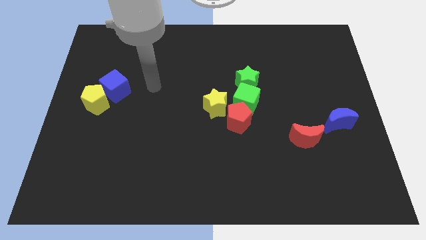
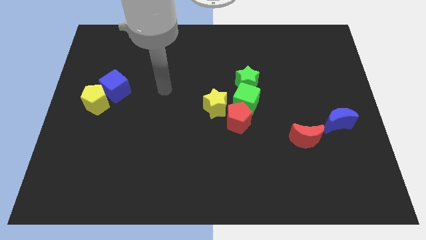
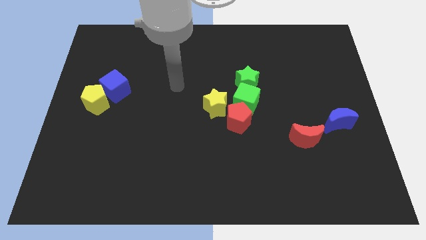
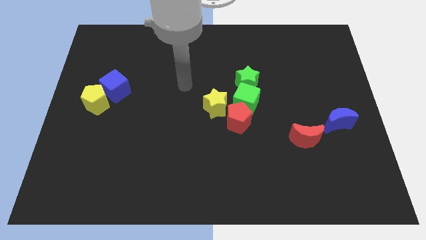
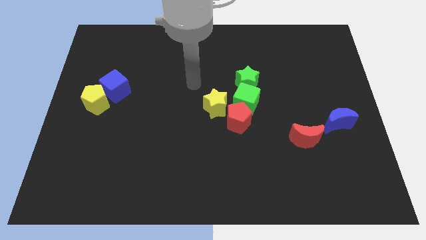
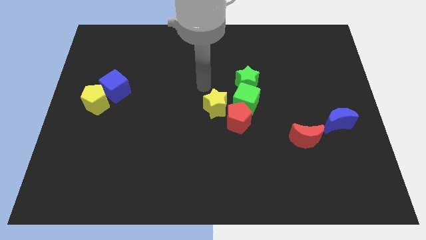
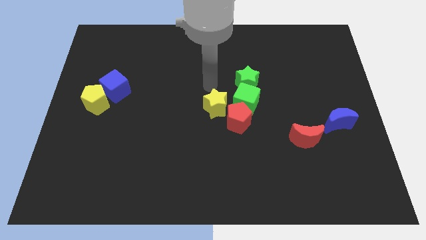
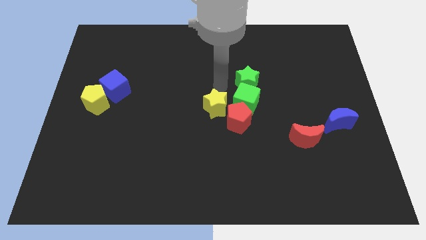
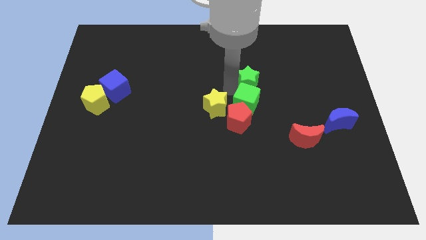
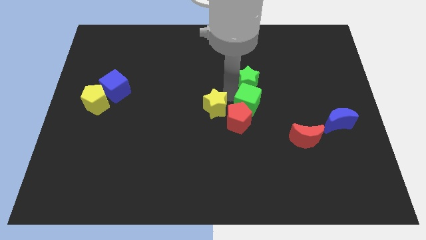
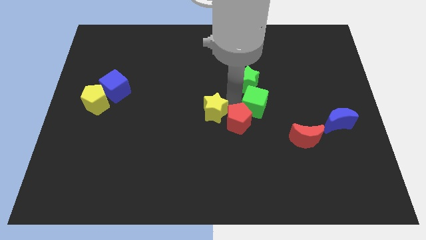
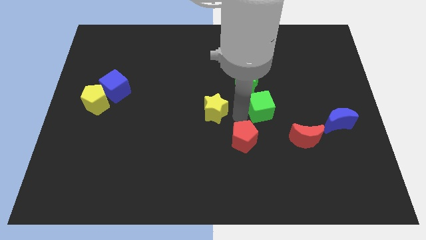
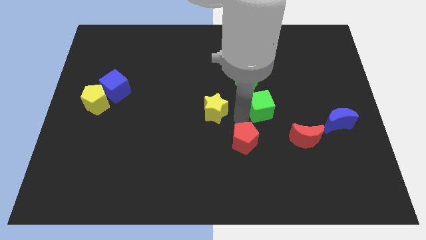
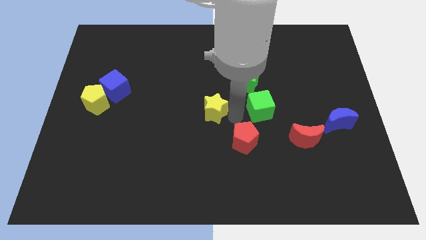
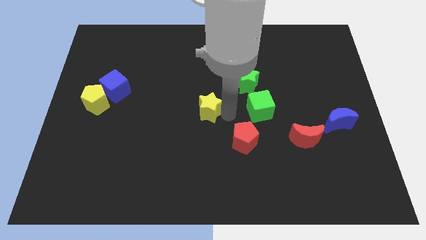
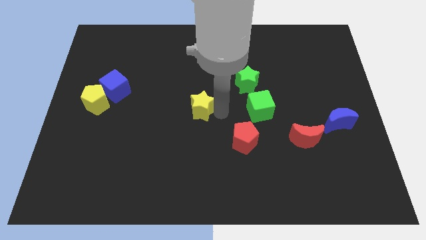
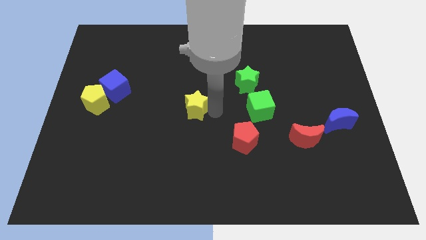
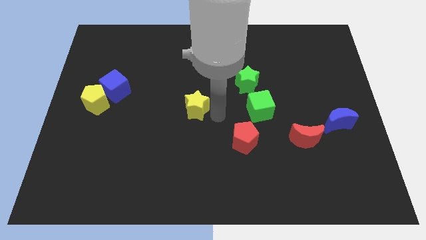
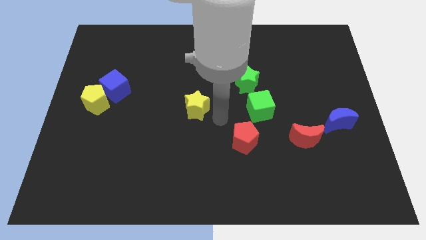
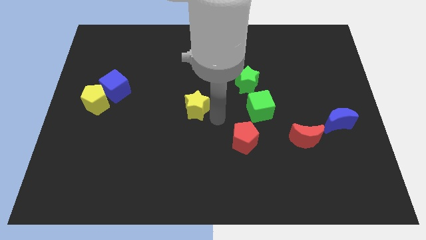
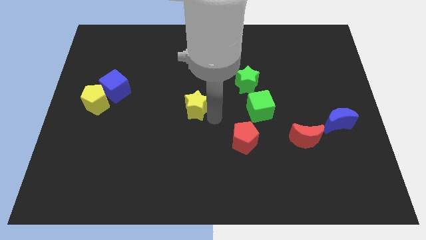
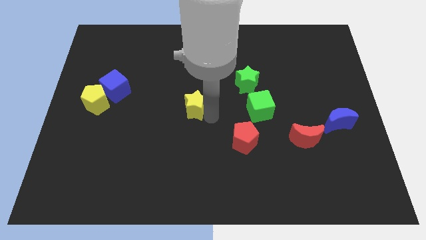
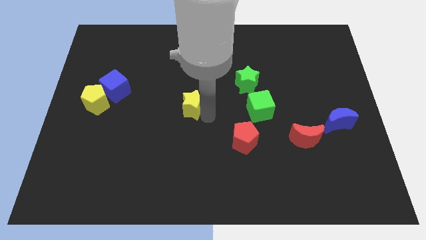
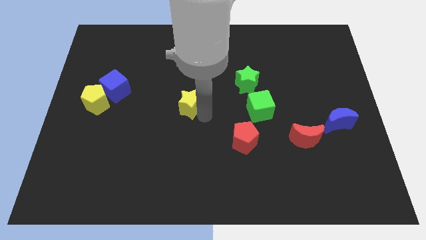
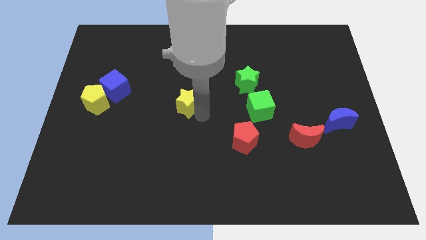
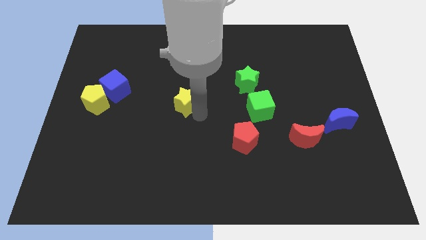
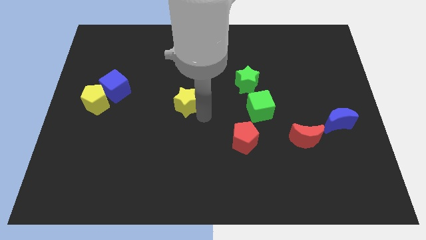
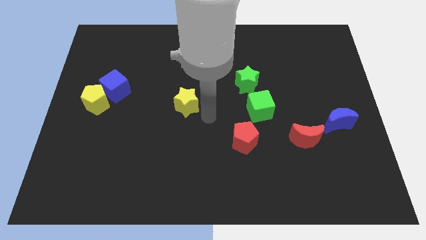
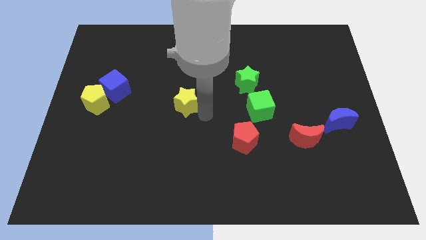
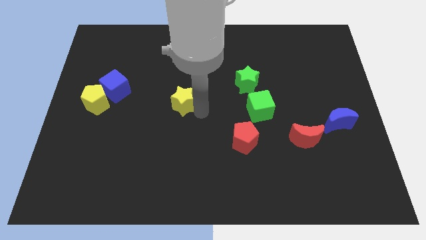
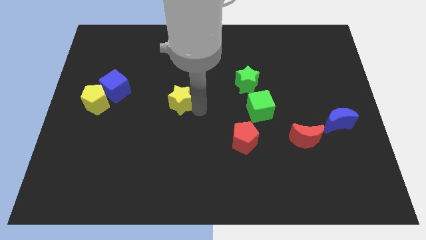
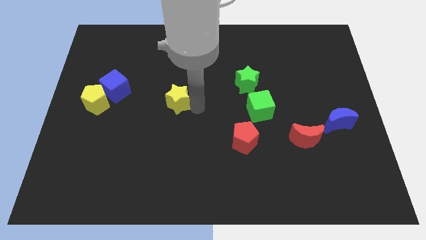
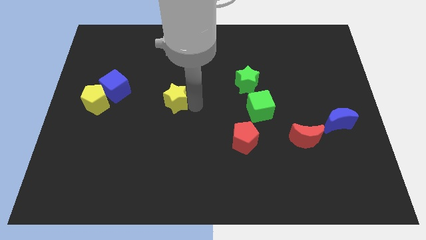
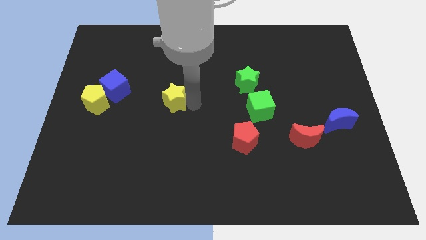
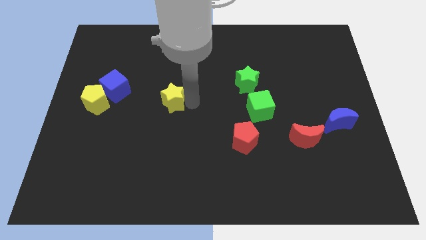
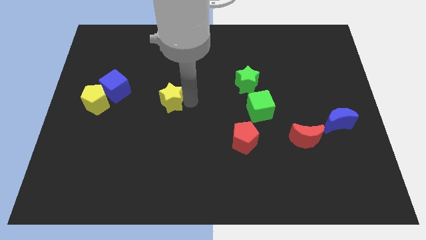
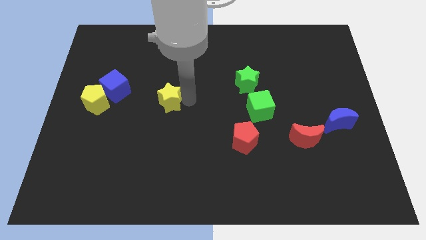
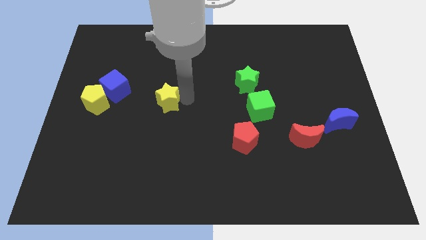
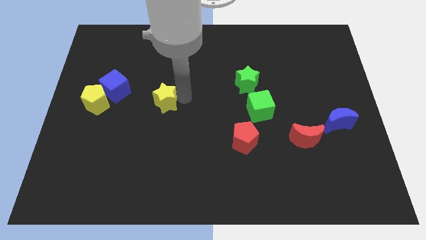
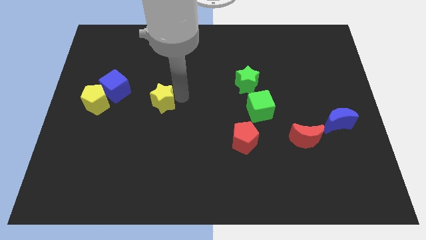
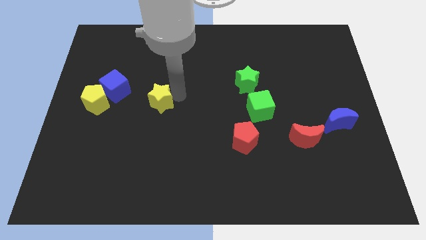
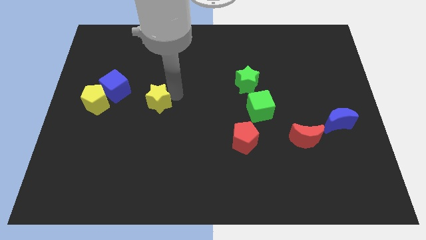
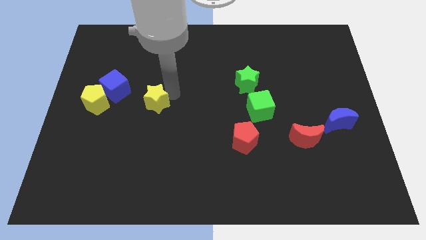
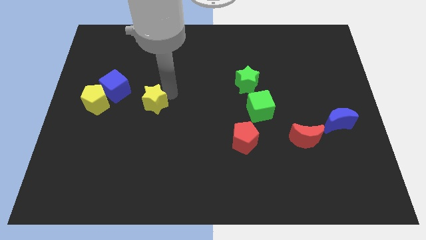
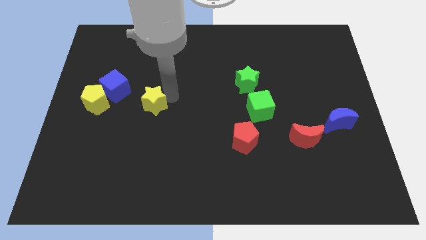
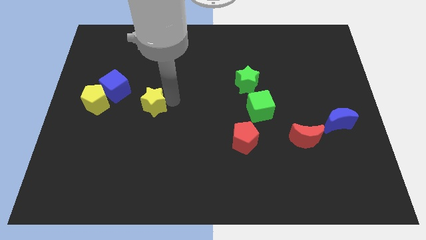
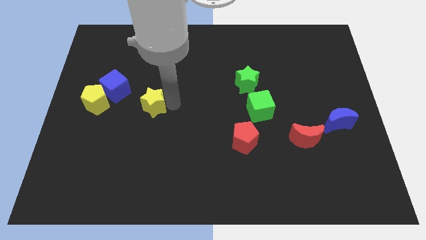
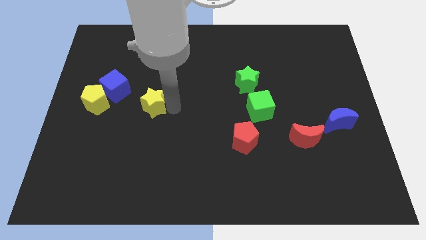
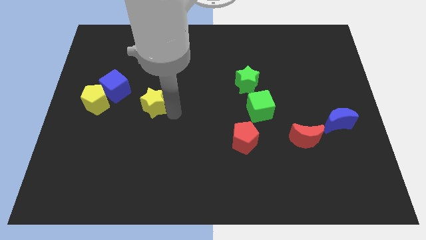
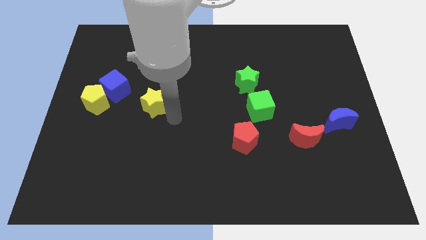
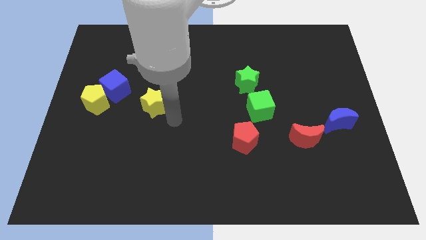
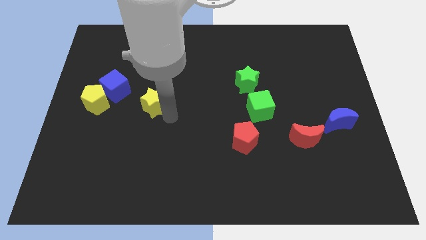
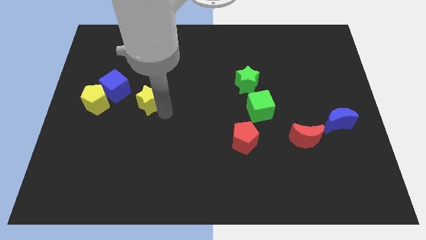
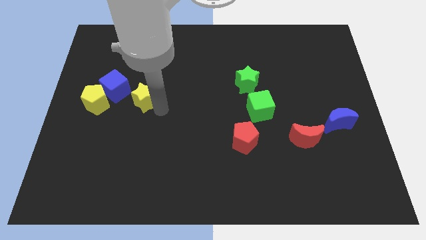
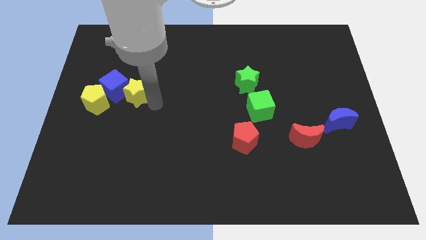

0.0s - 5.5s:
slide the yellow star next to the blue cube

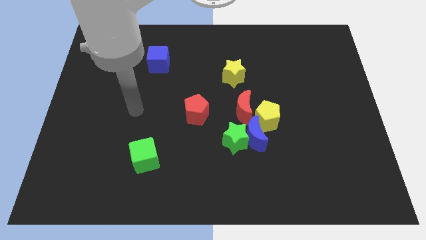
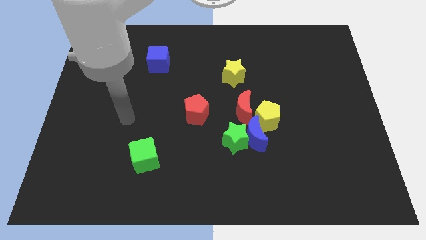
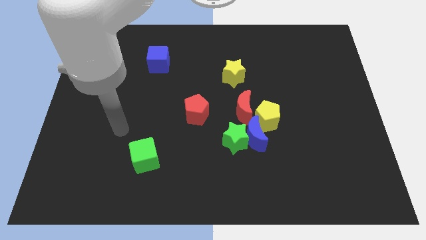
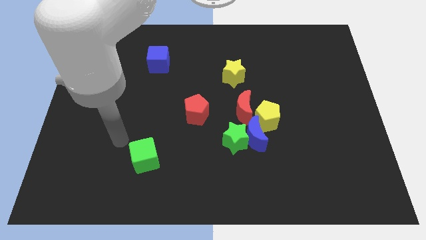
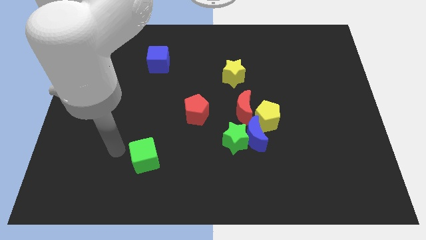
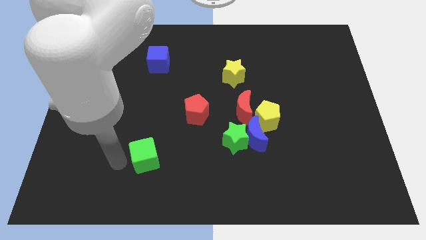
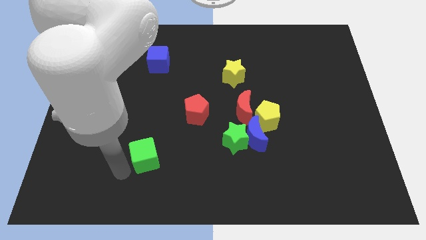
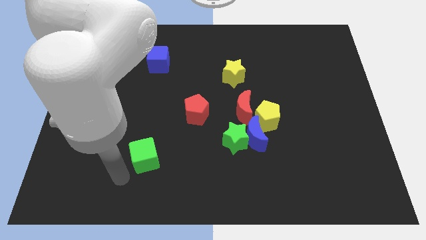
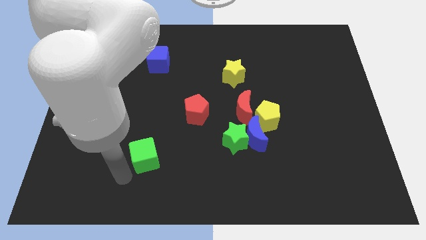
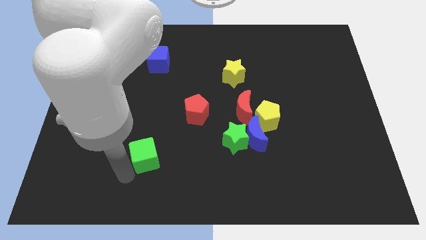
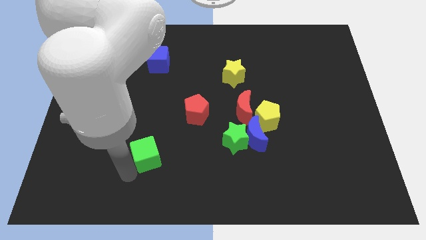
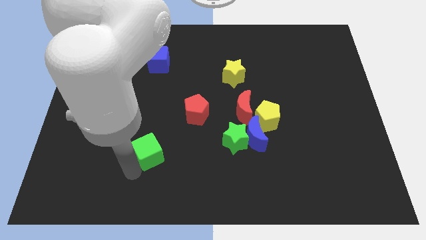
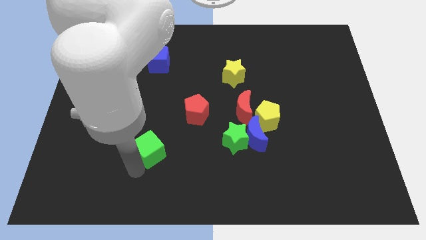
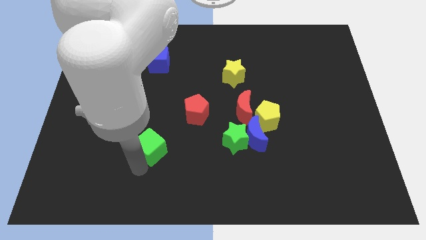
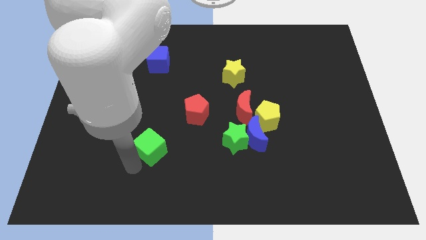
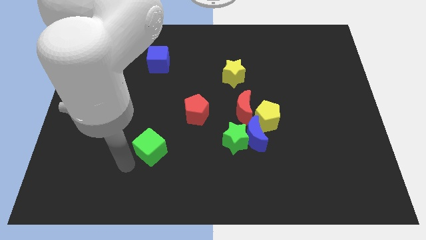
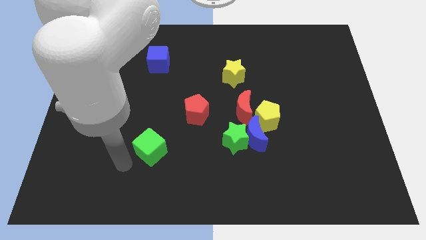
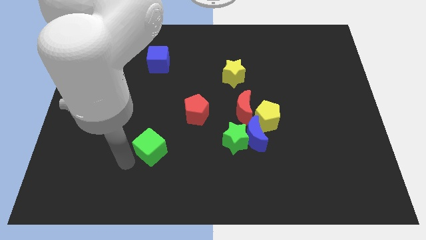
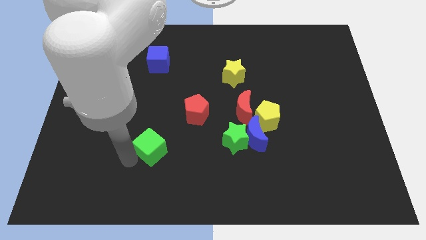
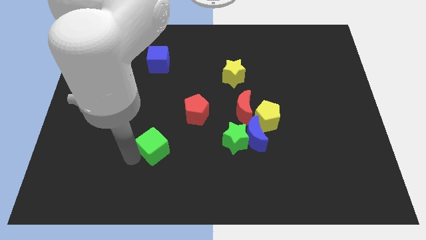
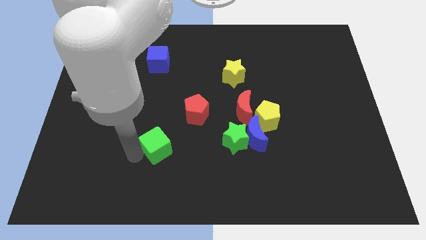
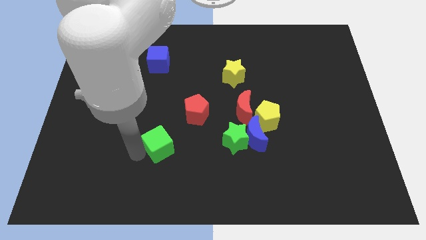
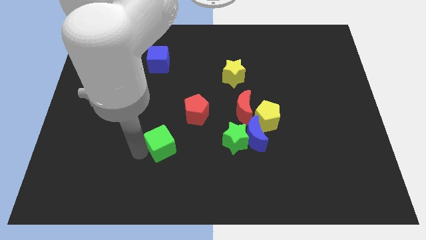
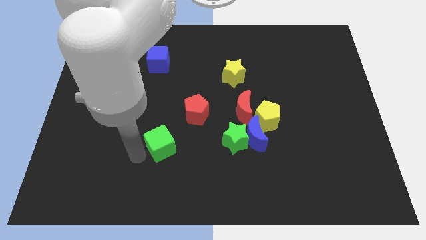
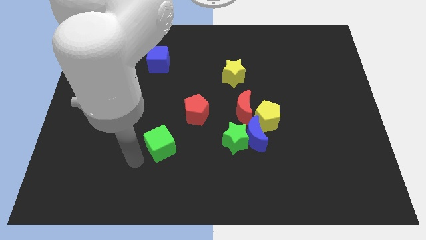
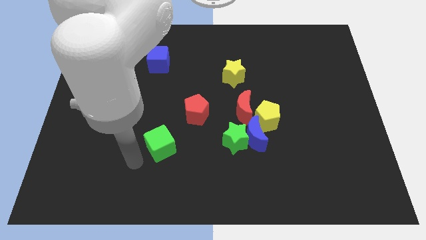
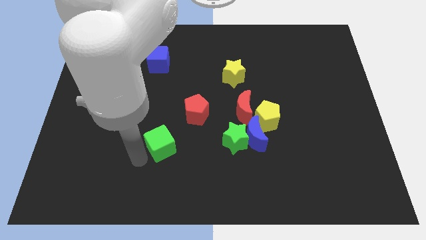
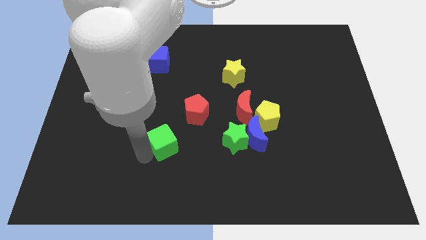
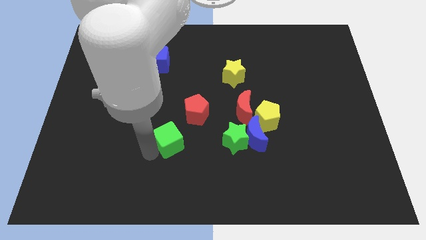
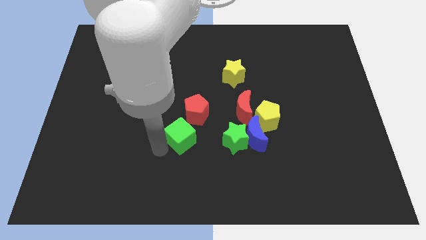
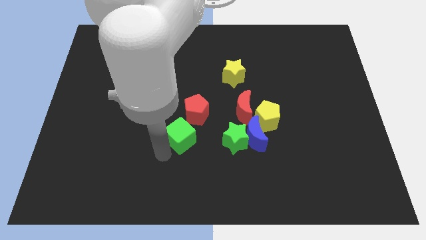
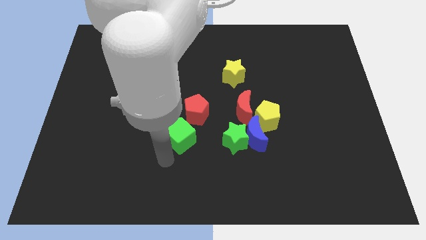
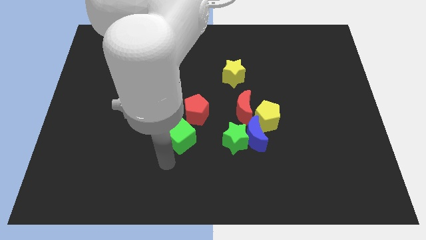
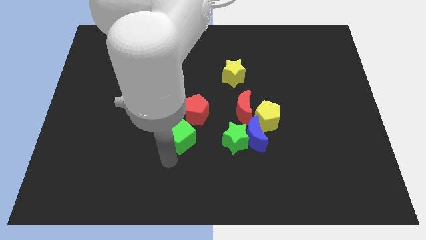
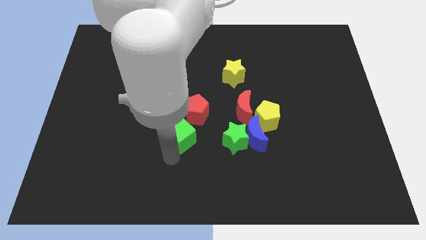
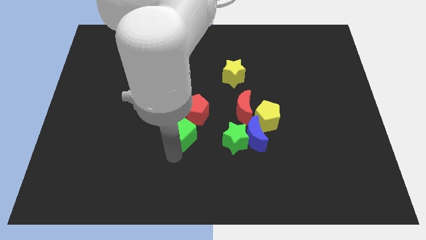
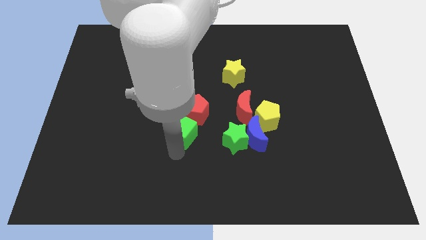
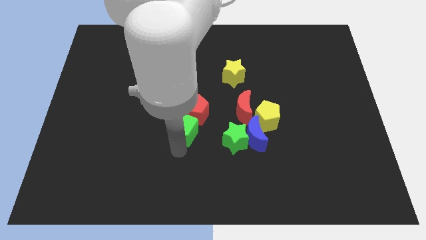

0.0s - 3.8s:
slide the green cube towards the red pentagon
